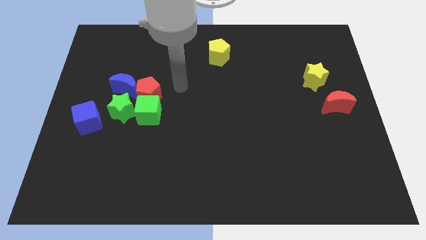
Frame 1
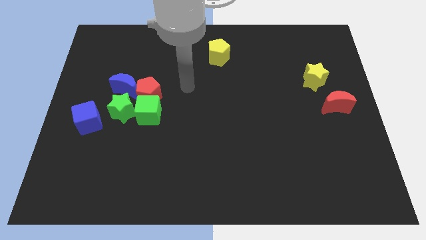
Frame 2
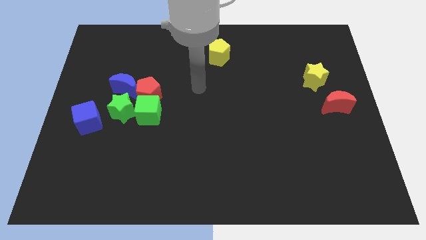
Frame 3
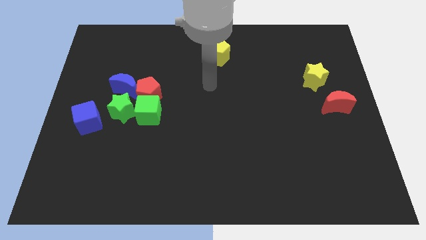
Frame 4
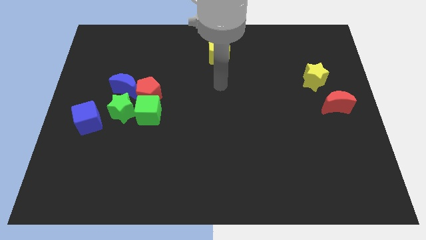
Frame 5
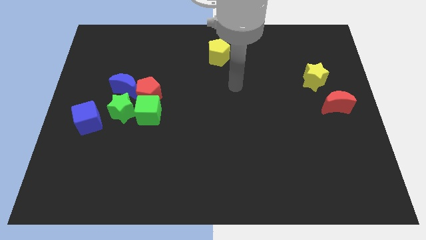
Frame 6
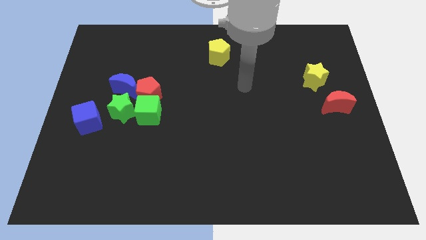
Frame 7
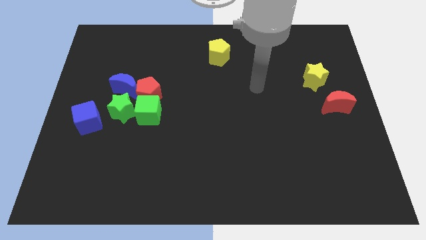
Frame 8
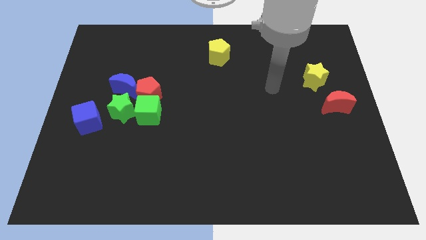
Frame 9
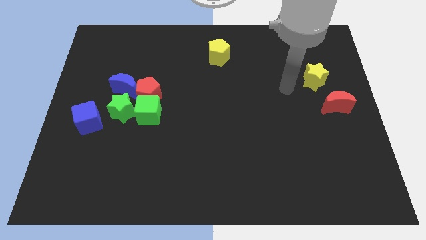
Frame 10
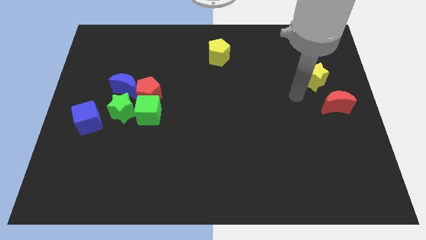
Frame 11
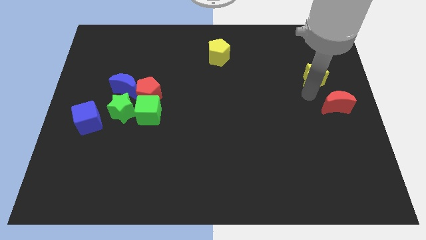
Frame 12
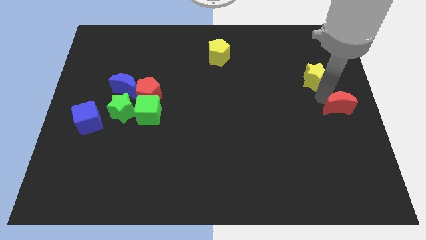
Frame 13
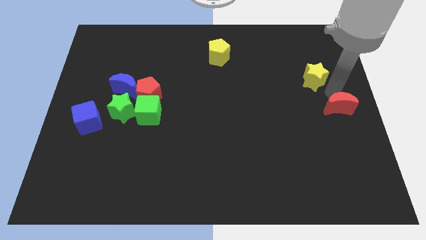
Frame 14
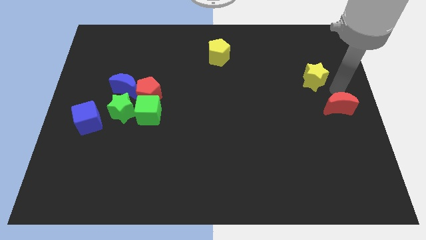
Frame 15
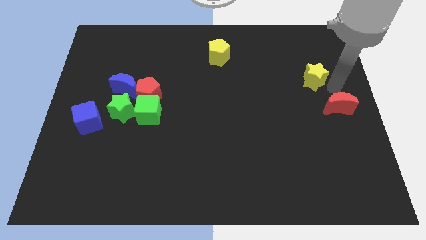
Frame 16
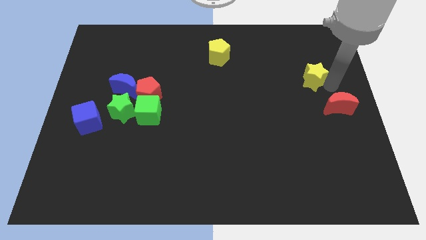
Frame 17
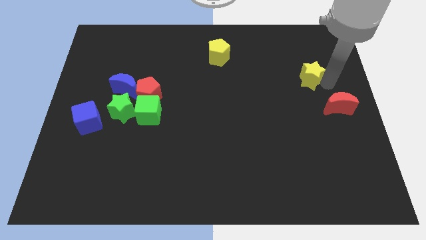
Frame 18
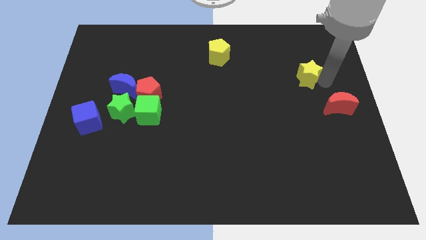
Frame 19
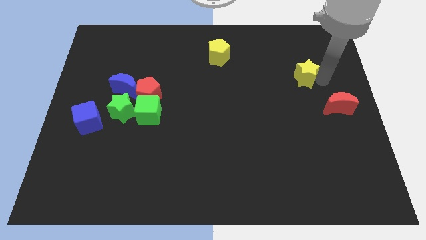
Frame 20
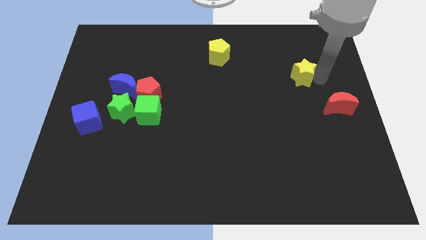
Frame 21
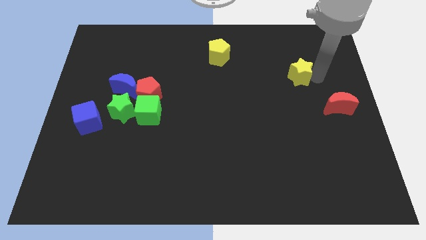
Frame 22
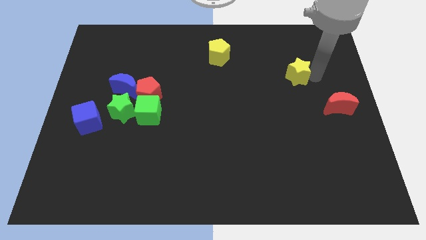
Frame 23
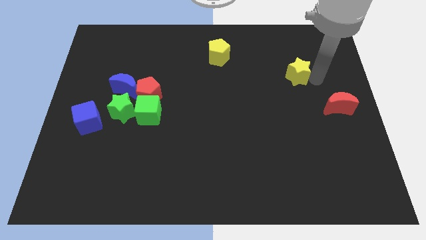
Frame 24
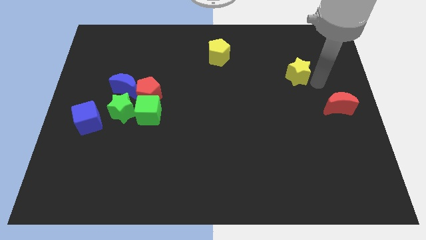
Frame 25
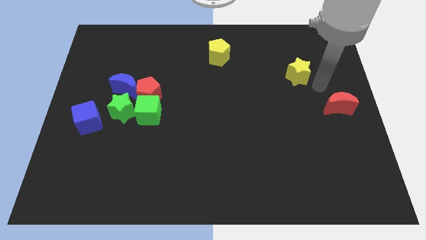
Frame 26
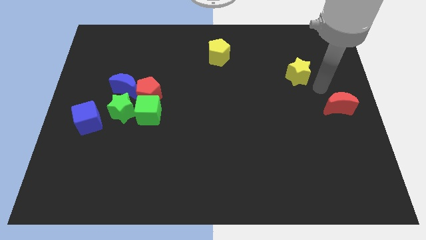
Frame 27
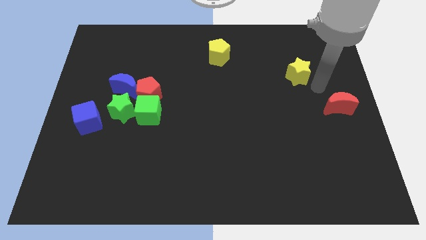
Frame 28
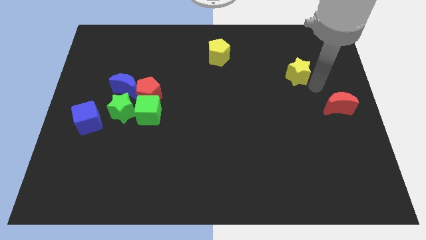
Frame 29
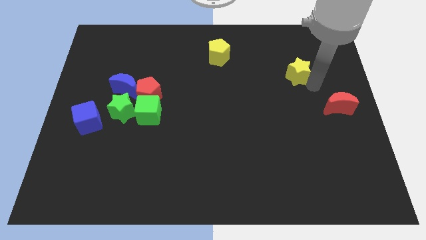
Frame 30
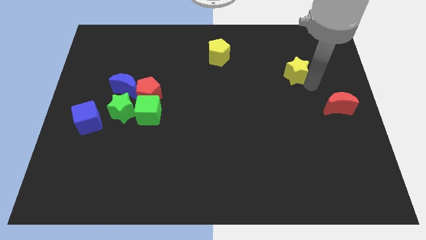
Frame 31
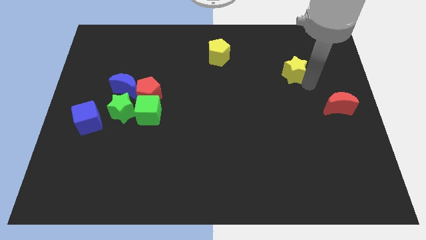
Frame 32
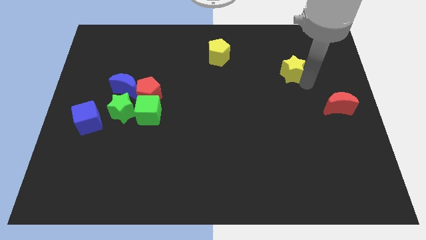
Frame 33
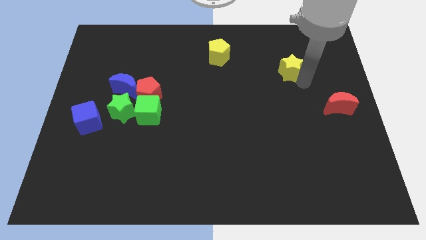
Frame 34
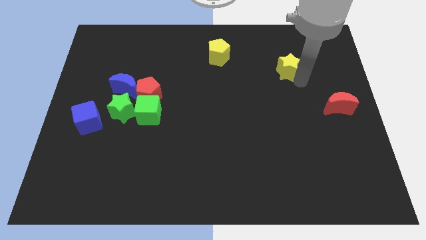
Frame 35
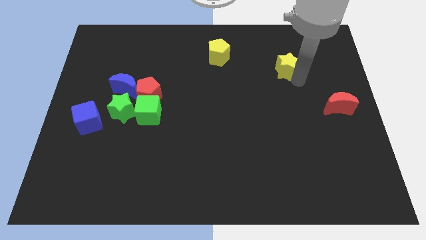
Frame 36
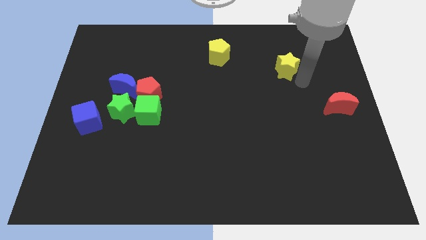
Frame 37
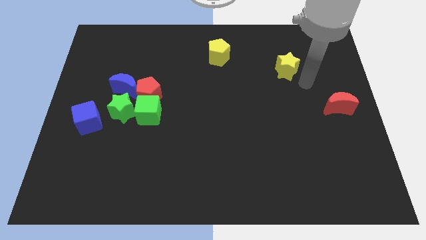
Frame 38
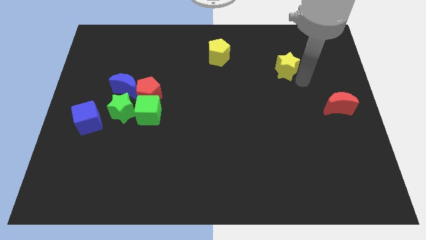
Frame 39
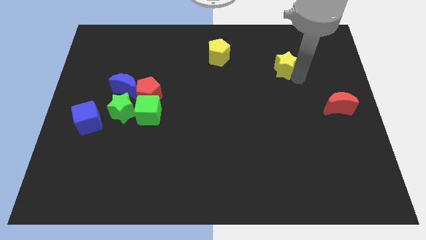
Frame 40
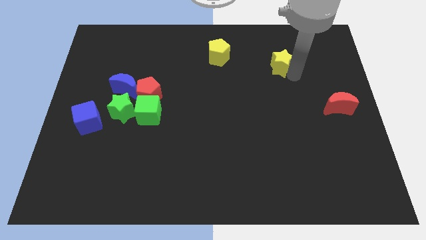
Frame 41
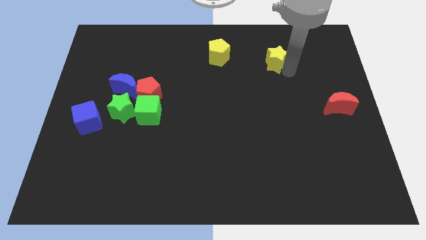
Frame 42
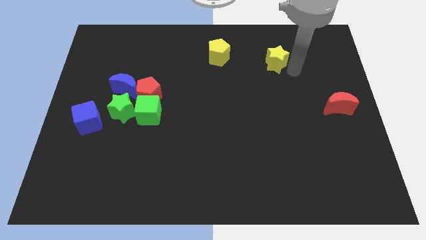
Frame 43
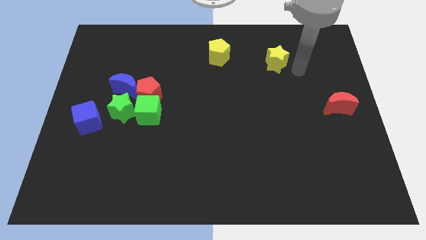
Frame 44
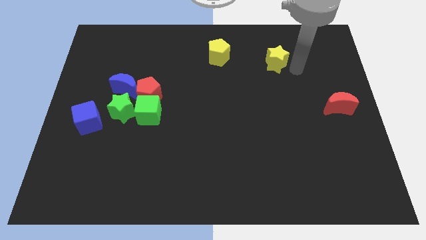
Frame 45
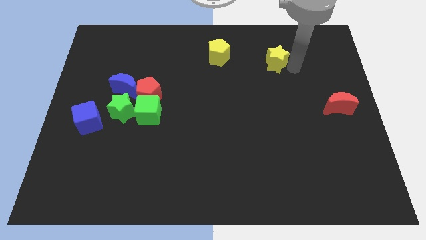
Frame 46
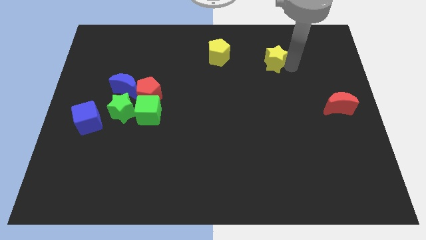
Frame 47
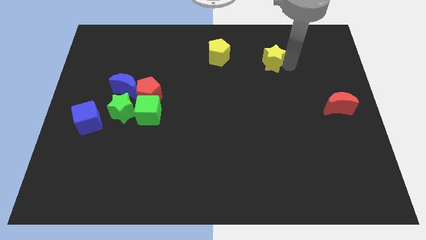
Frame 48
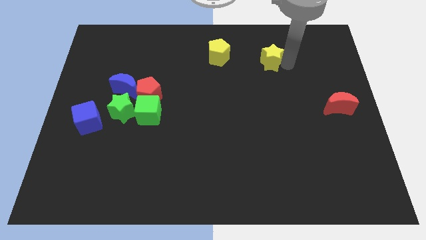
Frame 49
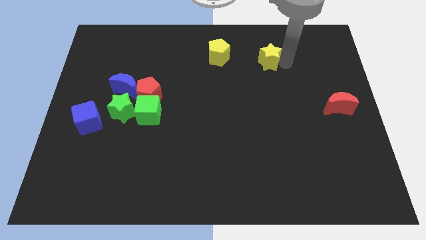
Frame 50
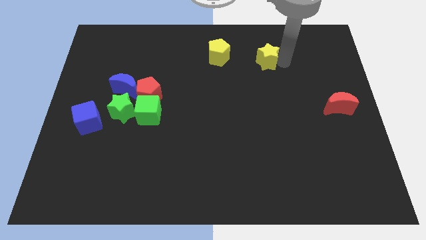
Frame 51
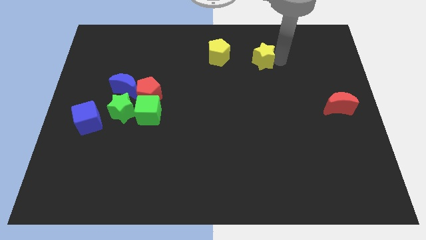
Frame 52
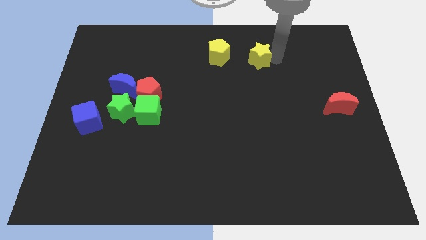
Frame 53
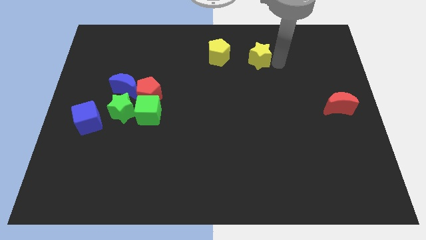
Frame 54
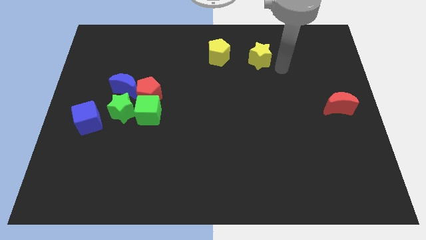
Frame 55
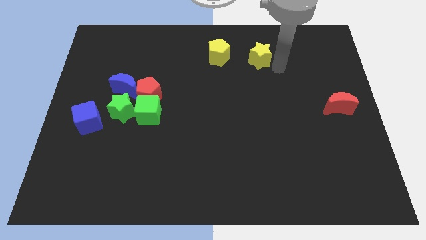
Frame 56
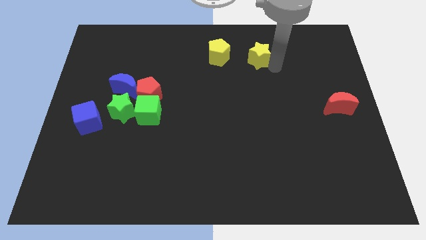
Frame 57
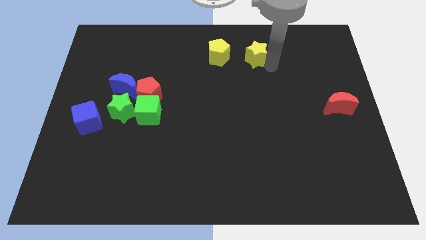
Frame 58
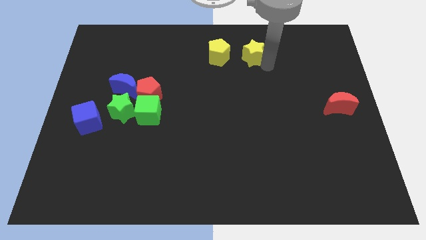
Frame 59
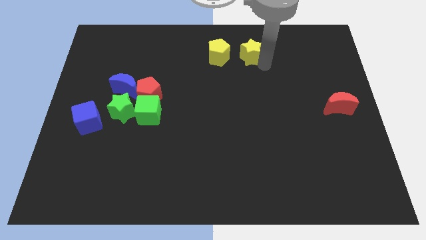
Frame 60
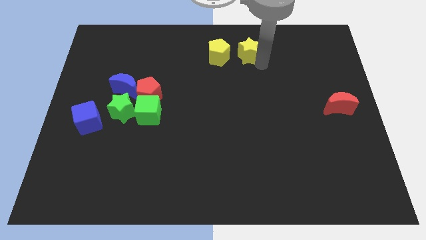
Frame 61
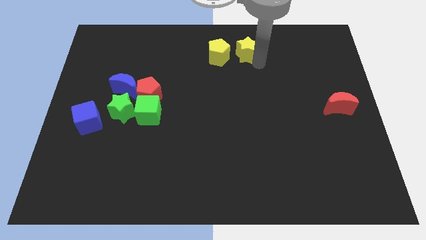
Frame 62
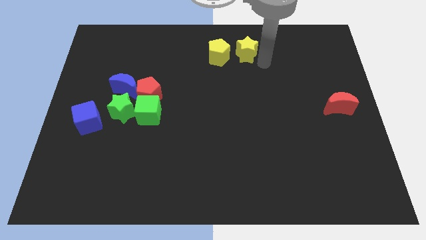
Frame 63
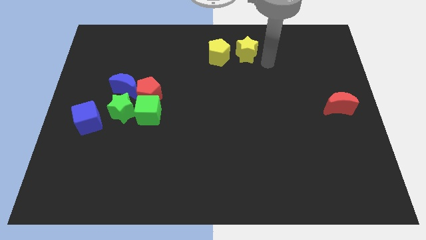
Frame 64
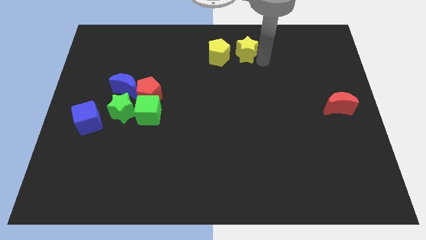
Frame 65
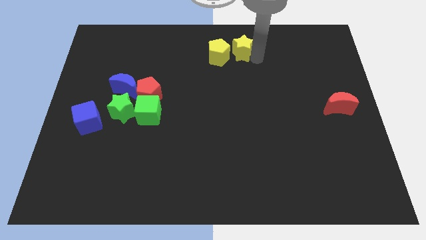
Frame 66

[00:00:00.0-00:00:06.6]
put the yellow star to the towards your base
